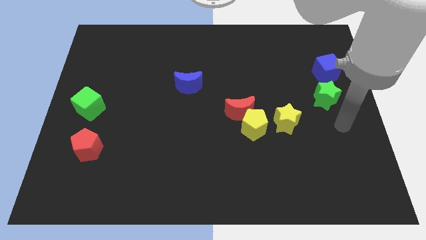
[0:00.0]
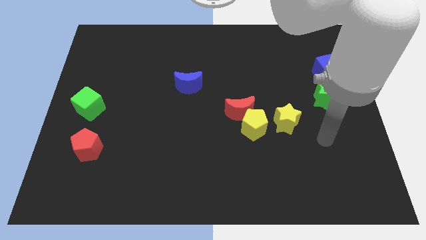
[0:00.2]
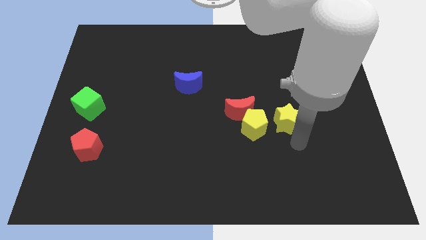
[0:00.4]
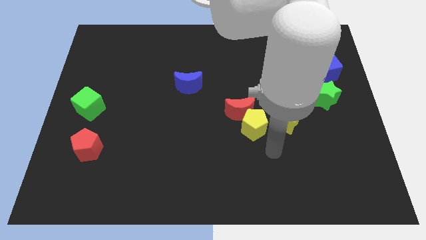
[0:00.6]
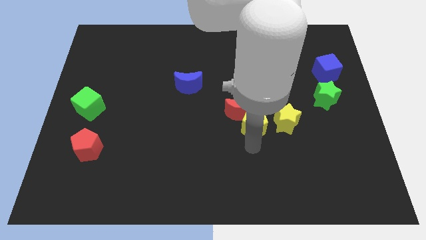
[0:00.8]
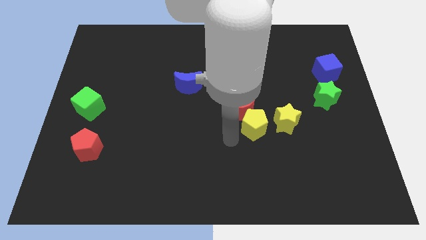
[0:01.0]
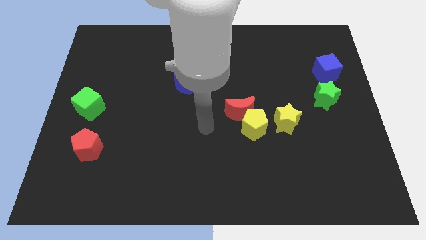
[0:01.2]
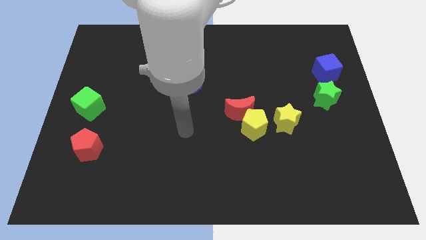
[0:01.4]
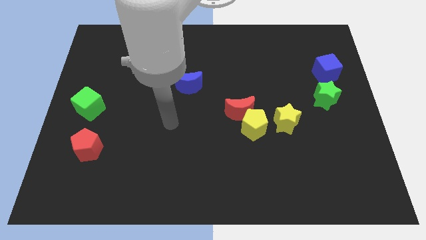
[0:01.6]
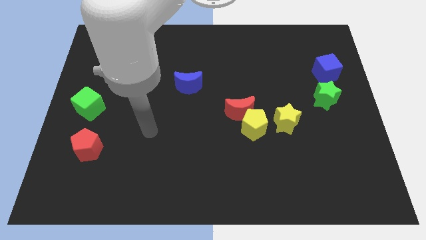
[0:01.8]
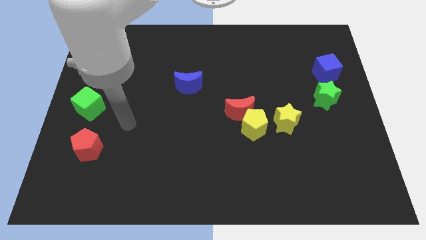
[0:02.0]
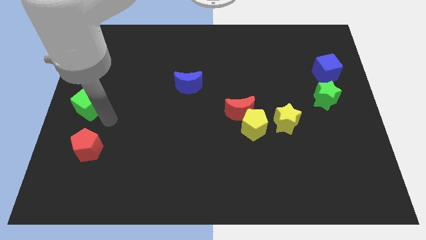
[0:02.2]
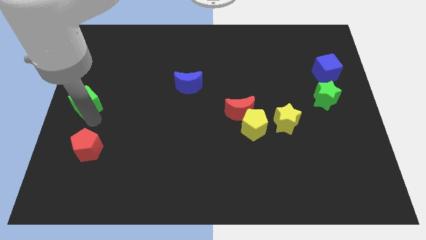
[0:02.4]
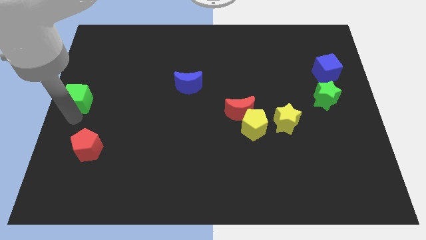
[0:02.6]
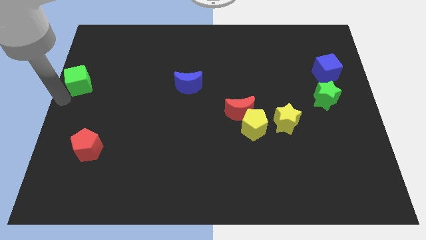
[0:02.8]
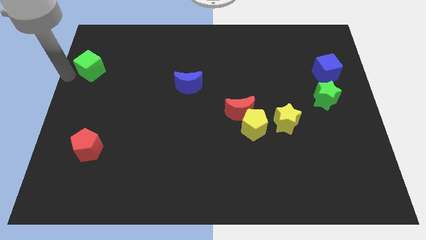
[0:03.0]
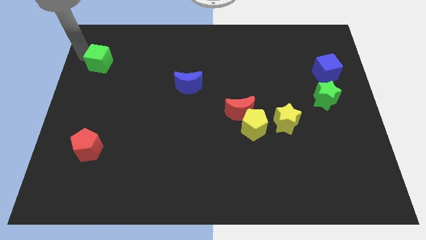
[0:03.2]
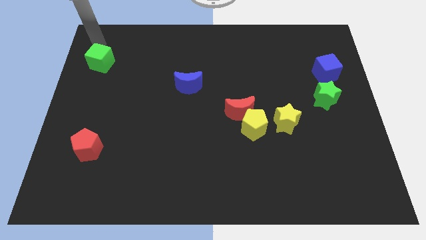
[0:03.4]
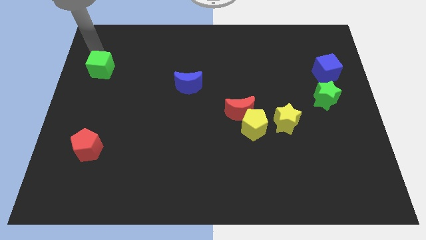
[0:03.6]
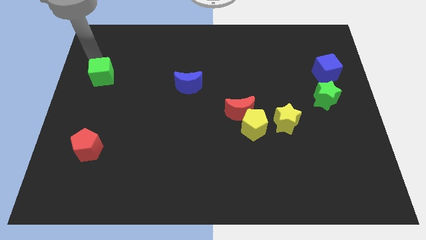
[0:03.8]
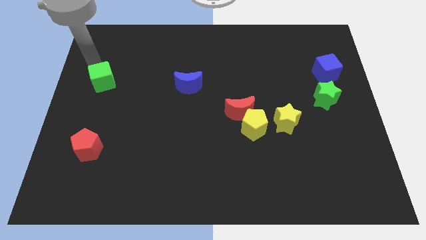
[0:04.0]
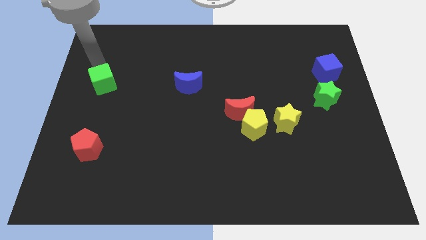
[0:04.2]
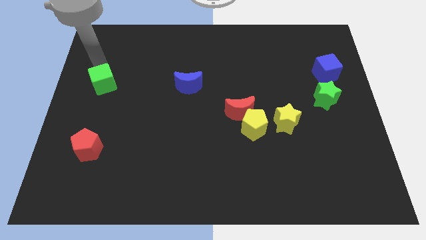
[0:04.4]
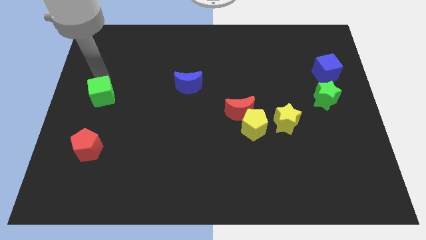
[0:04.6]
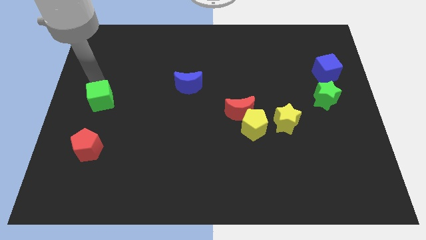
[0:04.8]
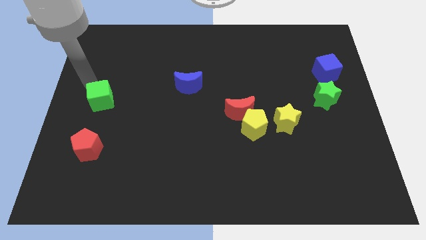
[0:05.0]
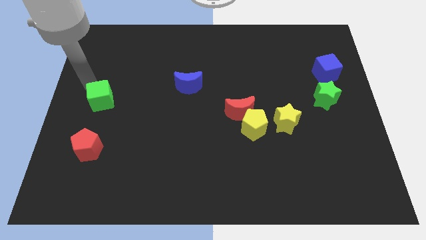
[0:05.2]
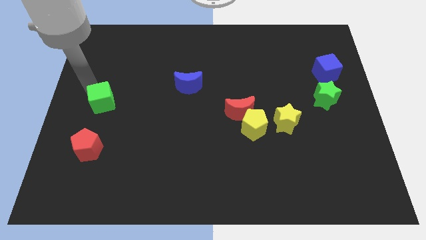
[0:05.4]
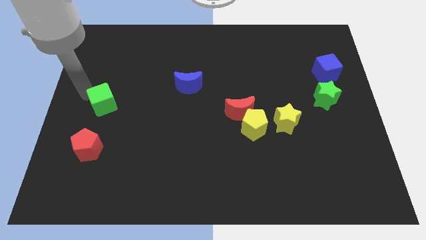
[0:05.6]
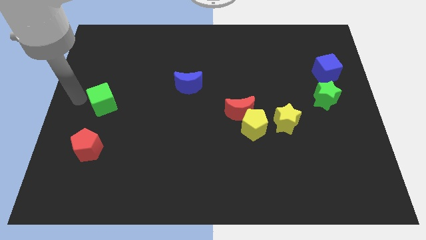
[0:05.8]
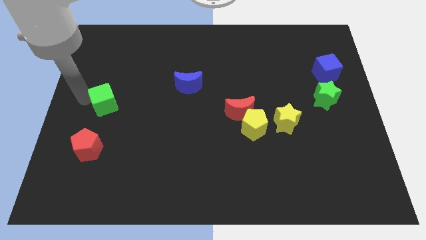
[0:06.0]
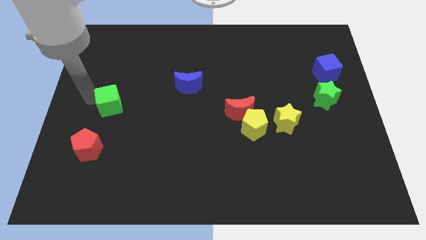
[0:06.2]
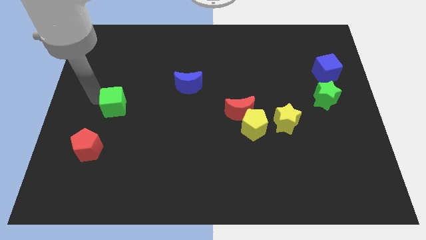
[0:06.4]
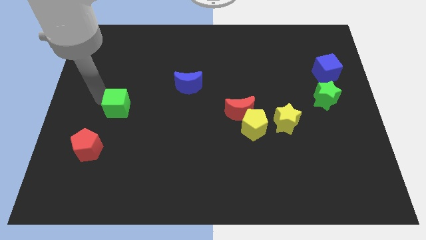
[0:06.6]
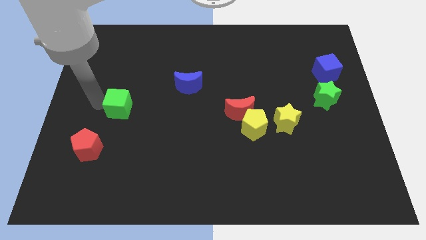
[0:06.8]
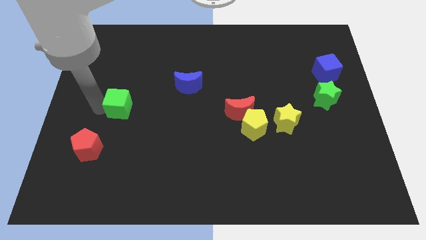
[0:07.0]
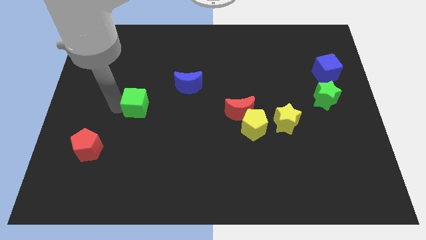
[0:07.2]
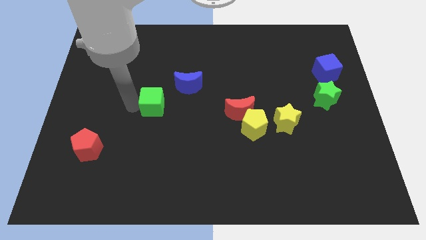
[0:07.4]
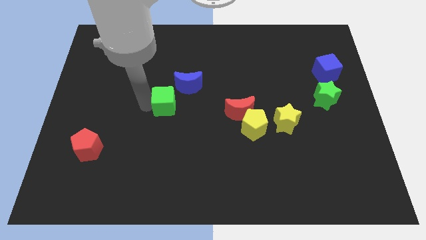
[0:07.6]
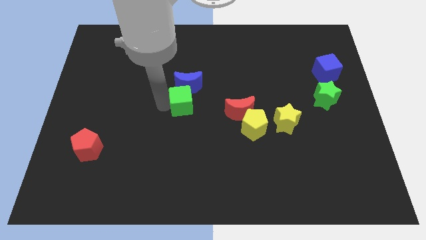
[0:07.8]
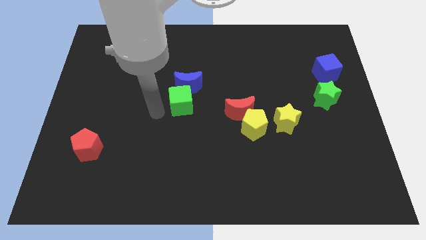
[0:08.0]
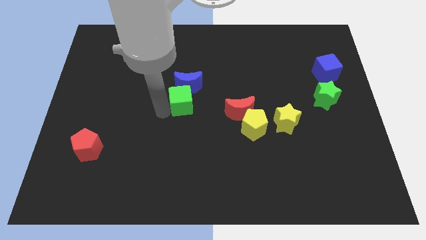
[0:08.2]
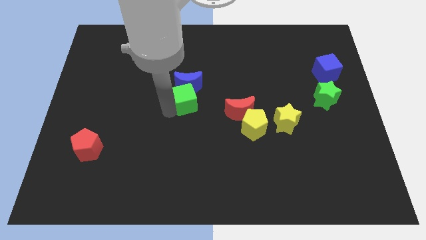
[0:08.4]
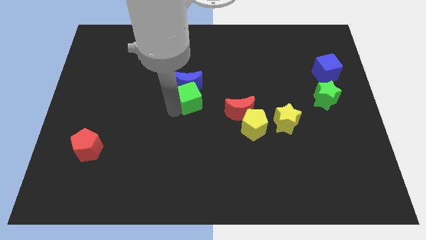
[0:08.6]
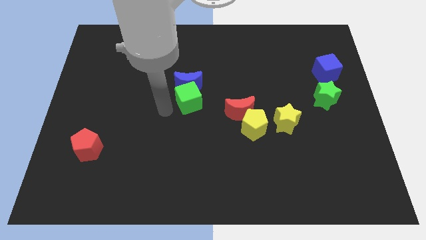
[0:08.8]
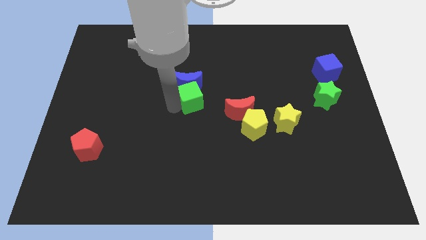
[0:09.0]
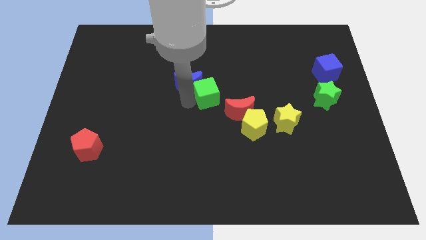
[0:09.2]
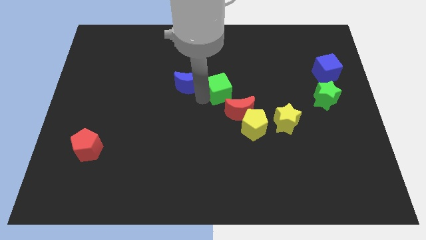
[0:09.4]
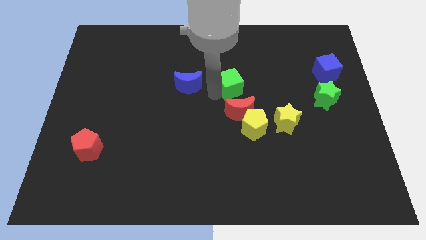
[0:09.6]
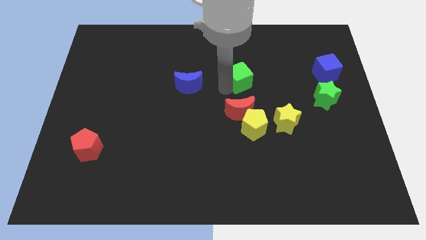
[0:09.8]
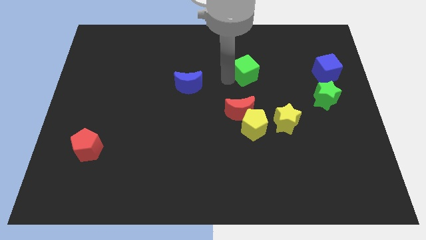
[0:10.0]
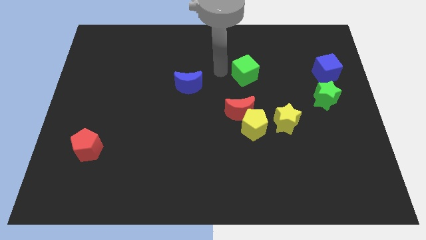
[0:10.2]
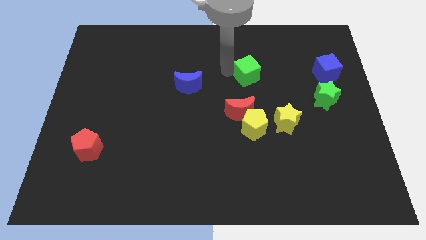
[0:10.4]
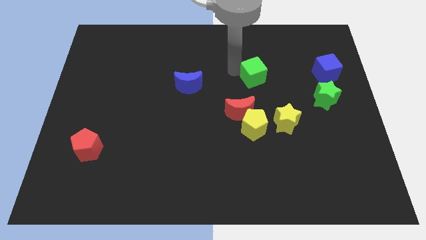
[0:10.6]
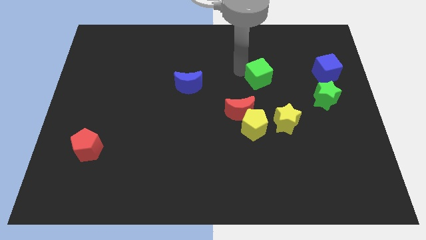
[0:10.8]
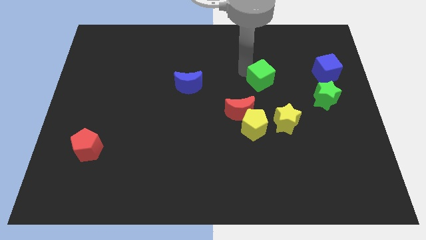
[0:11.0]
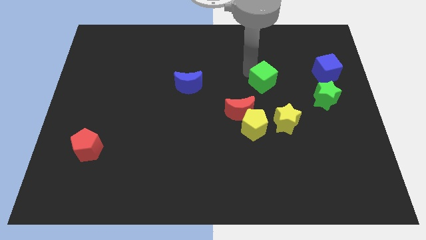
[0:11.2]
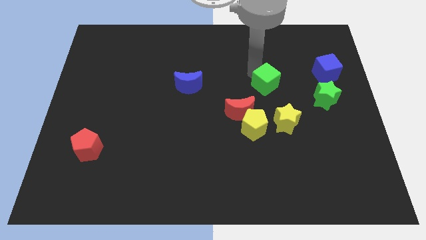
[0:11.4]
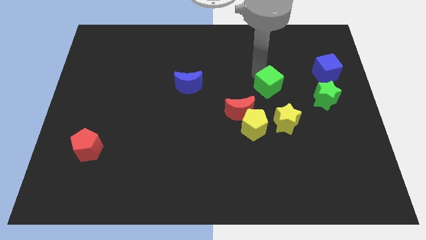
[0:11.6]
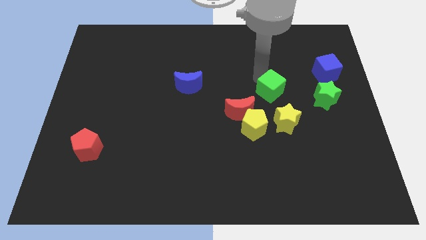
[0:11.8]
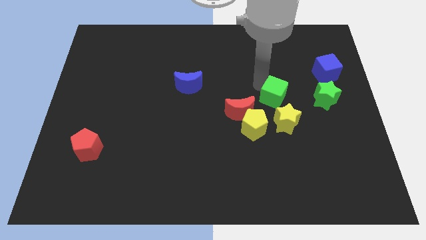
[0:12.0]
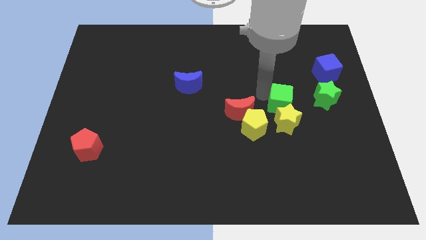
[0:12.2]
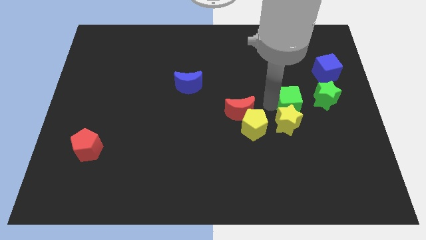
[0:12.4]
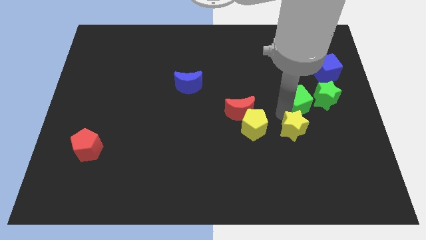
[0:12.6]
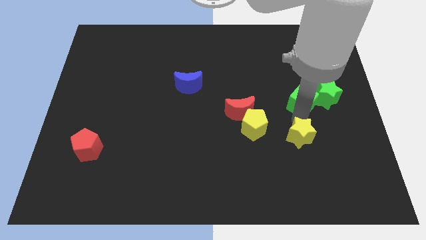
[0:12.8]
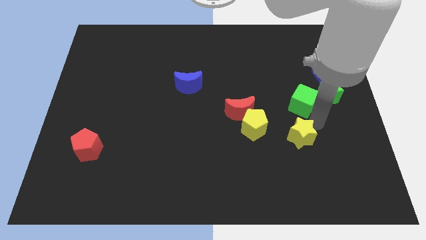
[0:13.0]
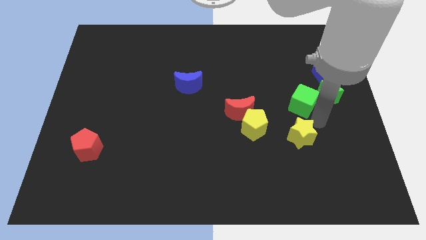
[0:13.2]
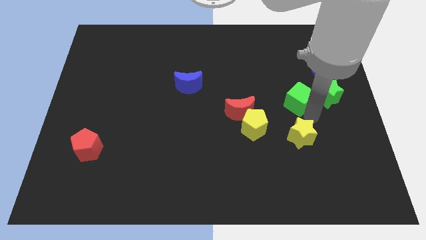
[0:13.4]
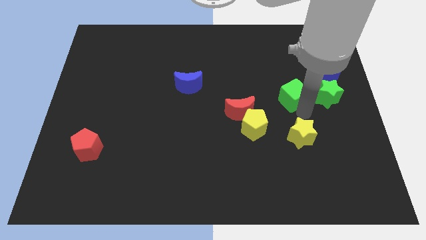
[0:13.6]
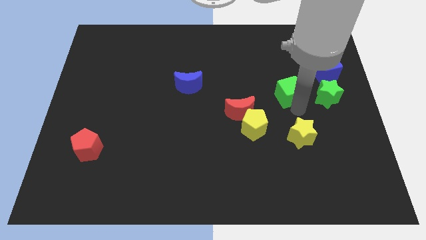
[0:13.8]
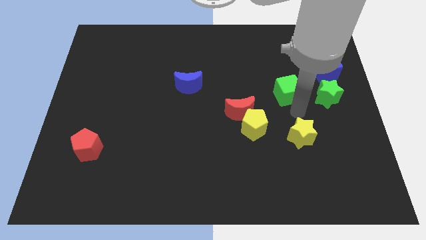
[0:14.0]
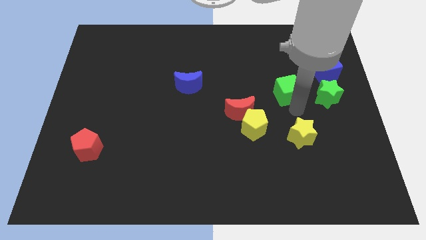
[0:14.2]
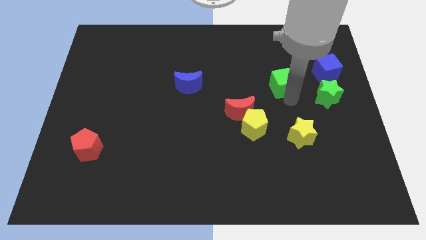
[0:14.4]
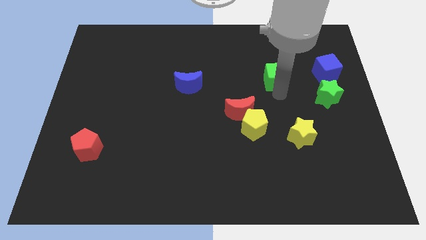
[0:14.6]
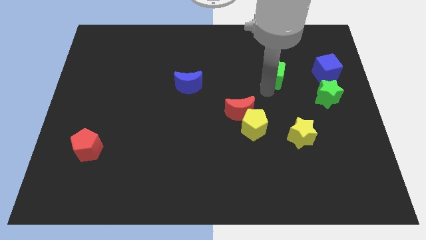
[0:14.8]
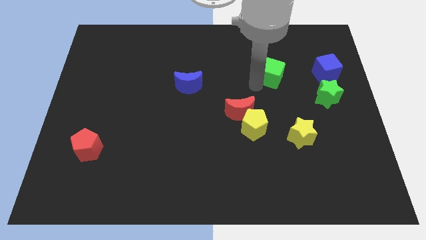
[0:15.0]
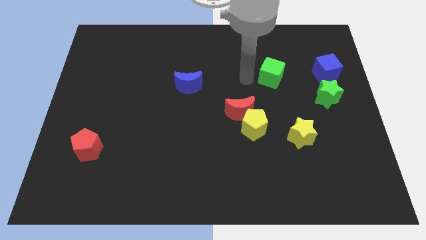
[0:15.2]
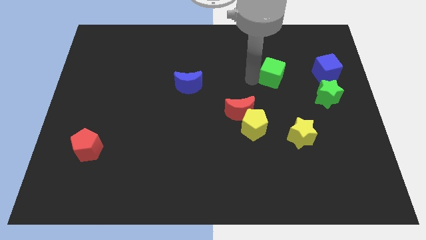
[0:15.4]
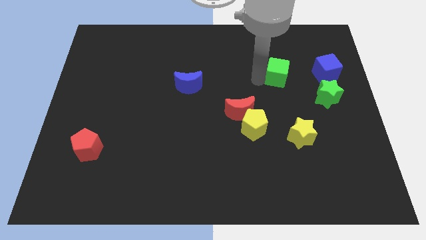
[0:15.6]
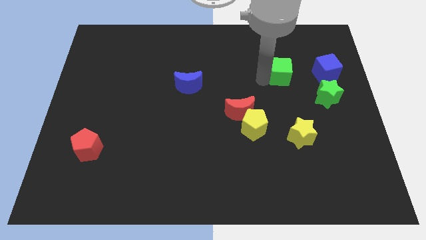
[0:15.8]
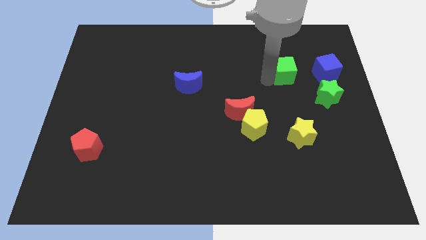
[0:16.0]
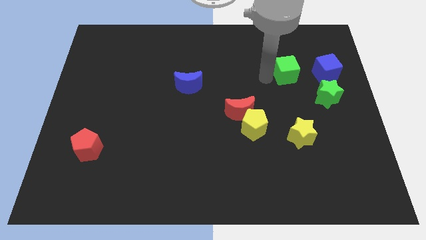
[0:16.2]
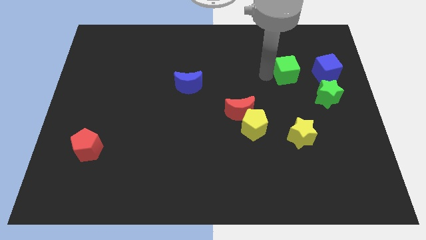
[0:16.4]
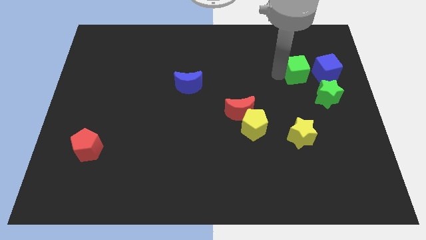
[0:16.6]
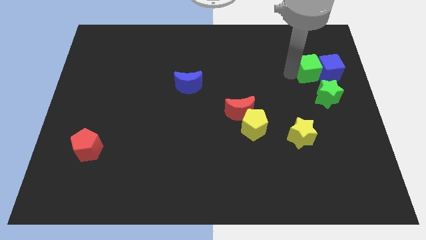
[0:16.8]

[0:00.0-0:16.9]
move the green cube to the blue cube
